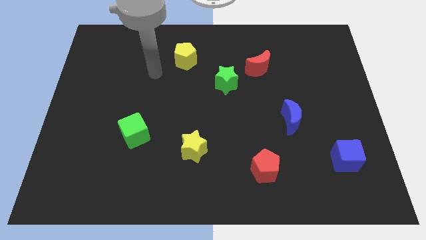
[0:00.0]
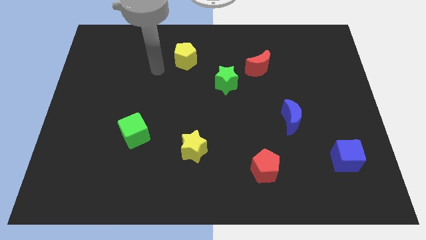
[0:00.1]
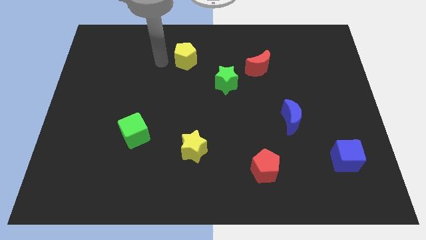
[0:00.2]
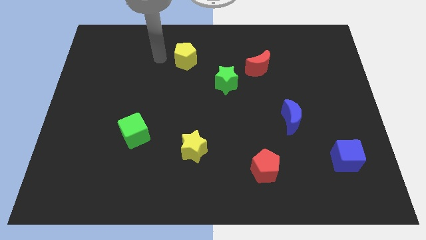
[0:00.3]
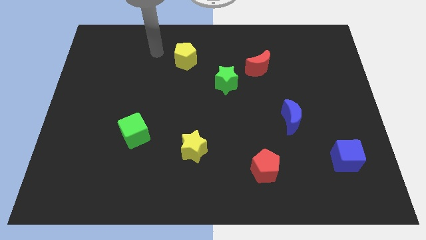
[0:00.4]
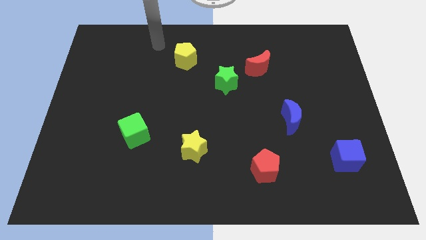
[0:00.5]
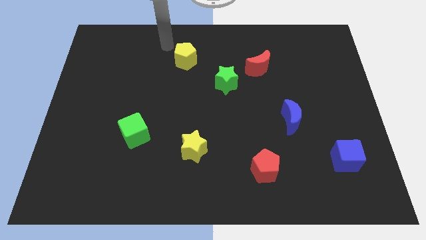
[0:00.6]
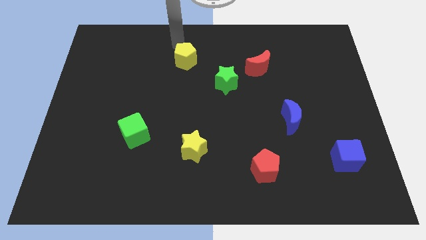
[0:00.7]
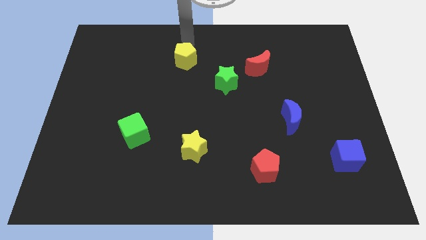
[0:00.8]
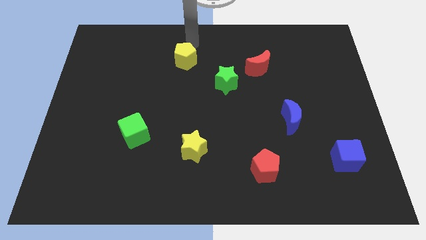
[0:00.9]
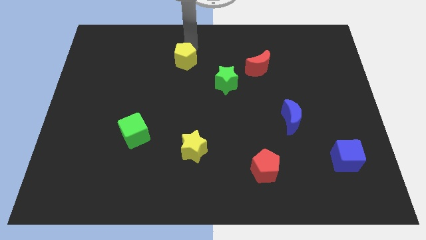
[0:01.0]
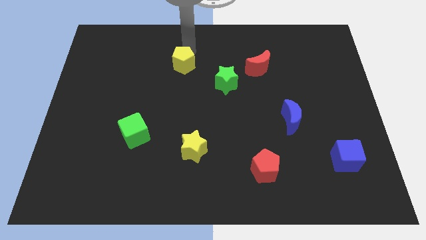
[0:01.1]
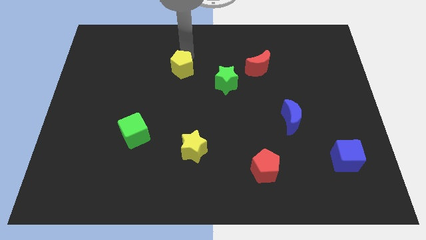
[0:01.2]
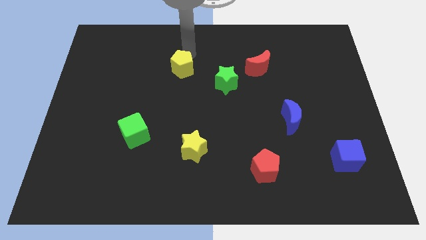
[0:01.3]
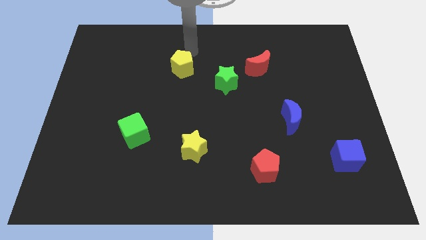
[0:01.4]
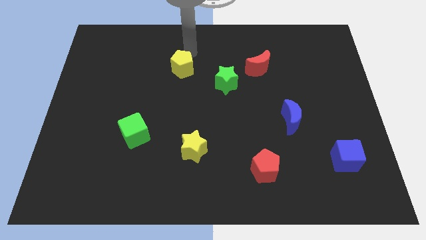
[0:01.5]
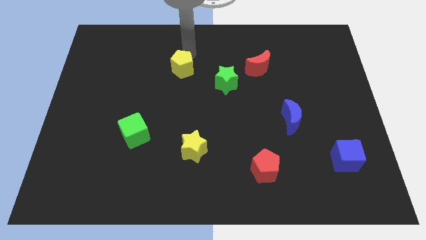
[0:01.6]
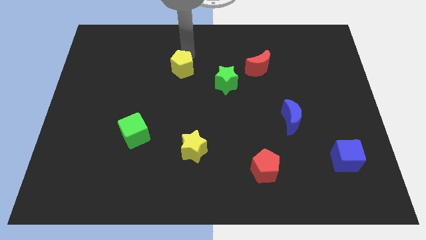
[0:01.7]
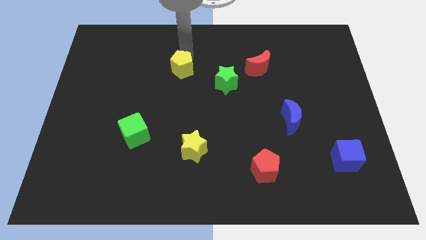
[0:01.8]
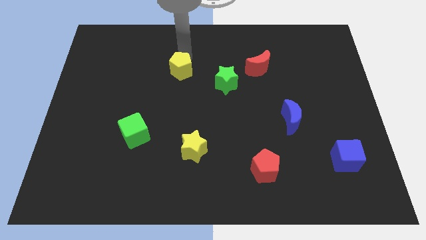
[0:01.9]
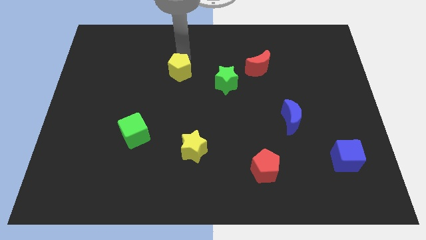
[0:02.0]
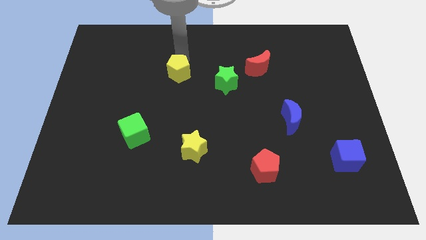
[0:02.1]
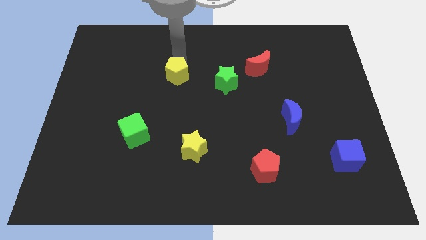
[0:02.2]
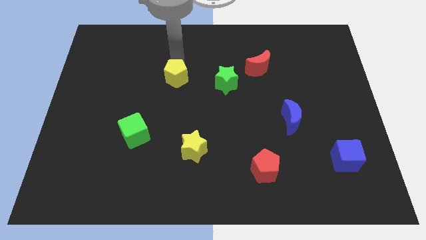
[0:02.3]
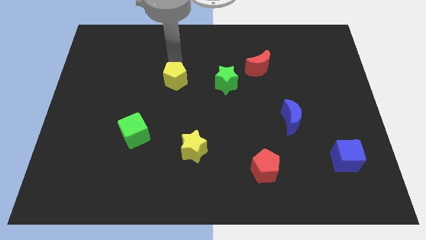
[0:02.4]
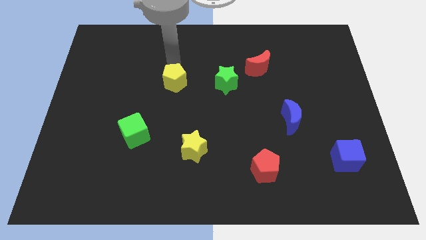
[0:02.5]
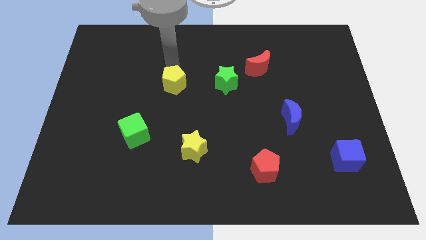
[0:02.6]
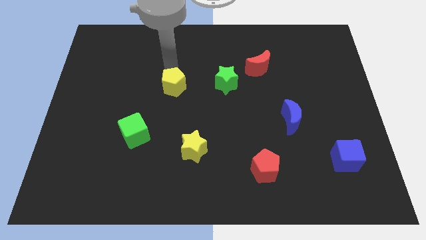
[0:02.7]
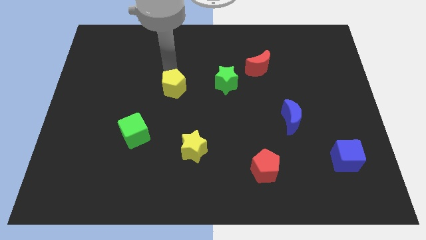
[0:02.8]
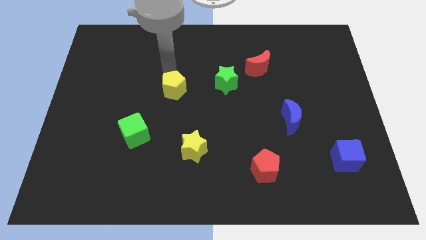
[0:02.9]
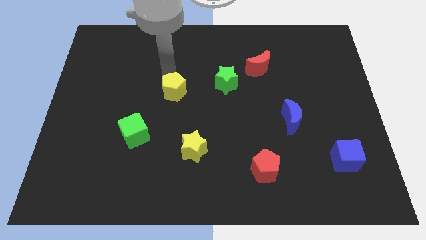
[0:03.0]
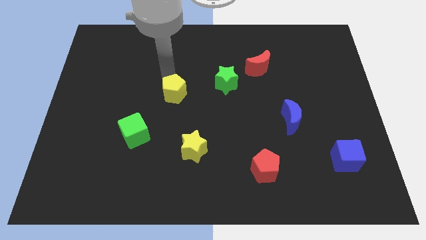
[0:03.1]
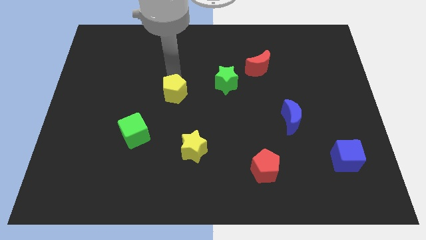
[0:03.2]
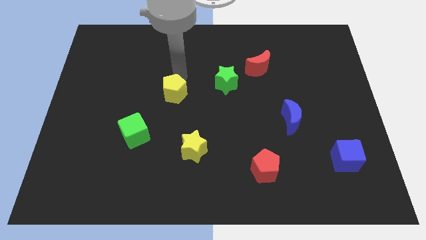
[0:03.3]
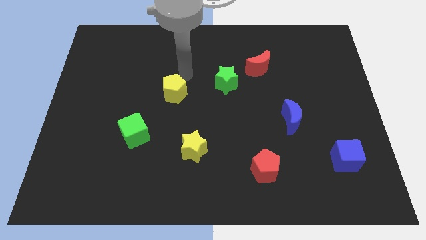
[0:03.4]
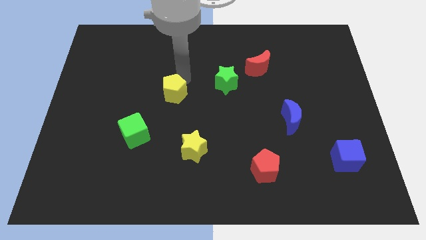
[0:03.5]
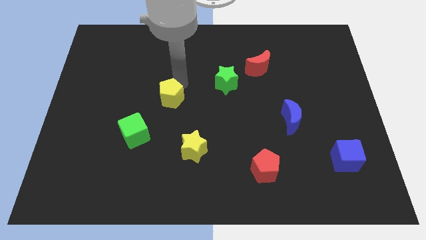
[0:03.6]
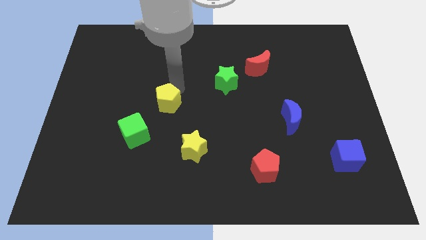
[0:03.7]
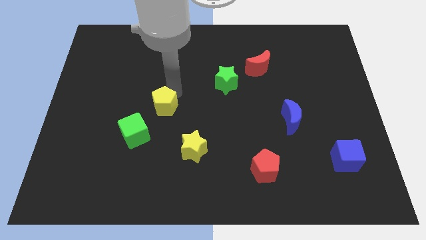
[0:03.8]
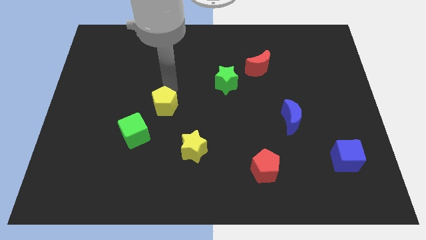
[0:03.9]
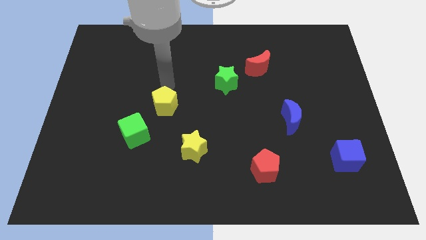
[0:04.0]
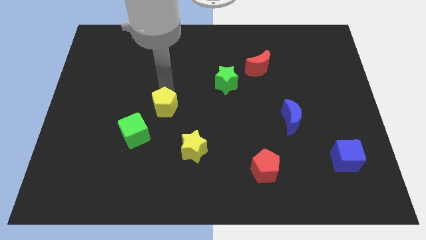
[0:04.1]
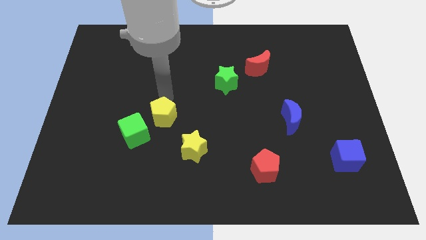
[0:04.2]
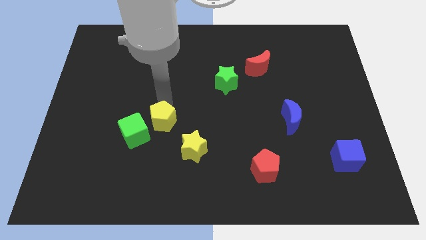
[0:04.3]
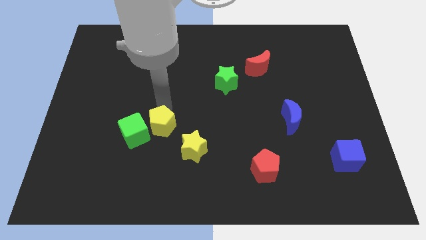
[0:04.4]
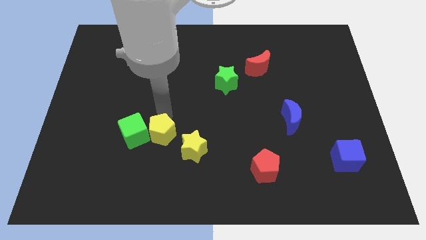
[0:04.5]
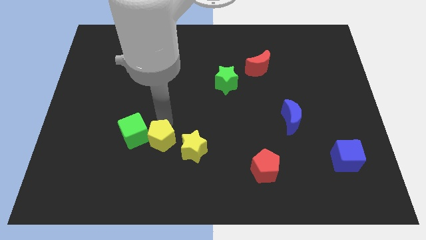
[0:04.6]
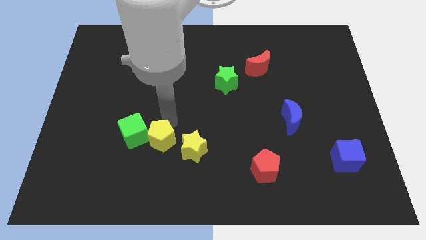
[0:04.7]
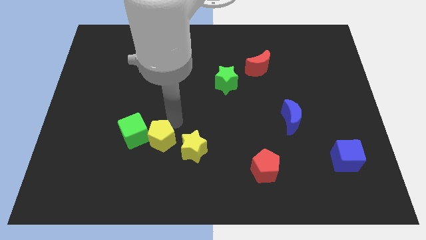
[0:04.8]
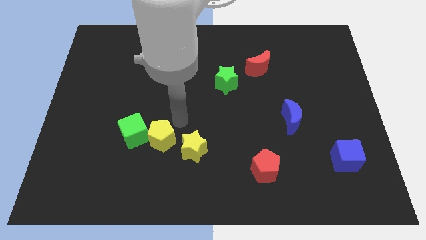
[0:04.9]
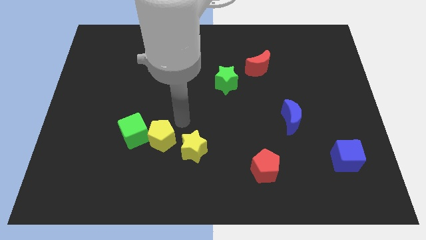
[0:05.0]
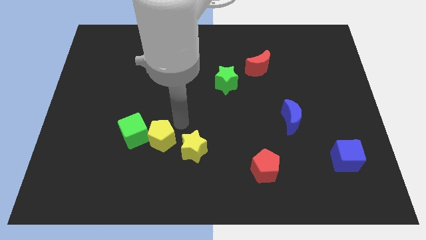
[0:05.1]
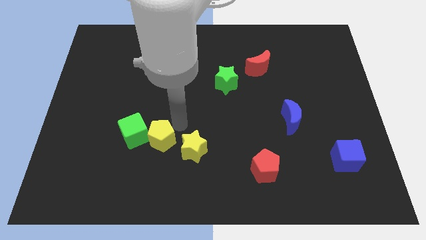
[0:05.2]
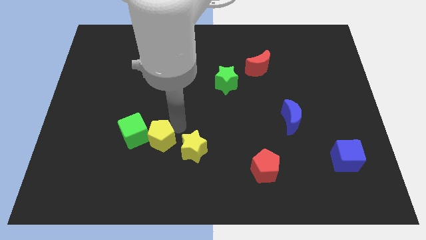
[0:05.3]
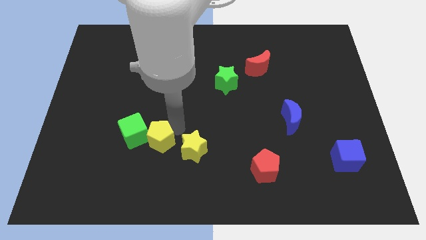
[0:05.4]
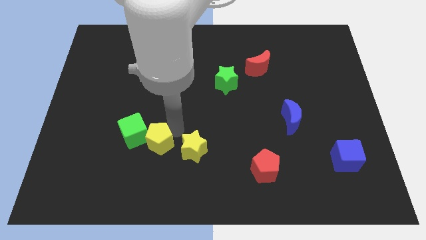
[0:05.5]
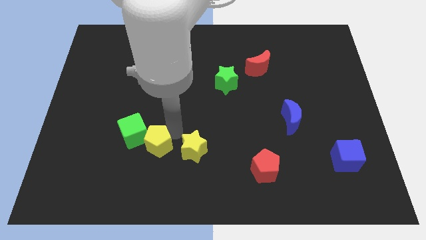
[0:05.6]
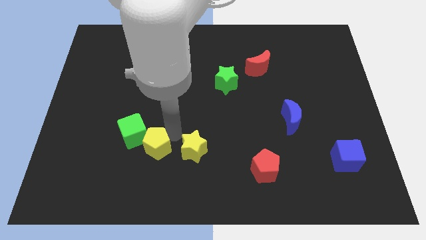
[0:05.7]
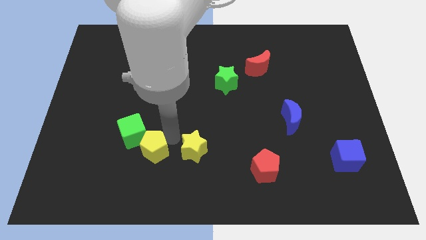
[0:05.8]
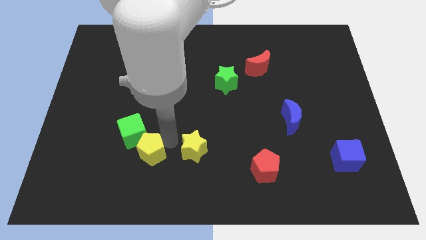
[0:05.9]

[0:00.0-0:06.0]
move the yellow pentagon below the green cube

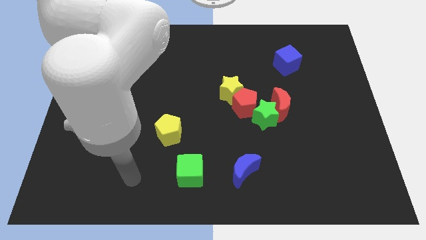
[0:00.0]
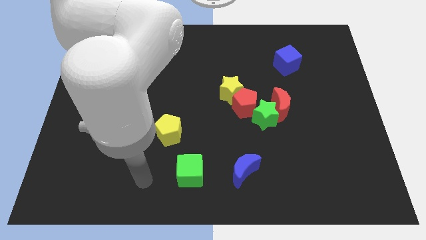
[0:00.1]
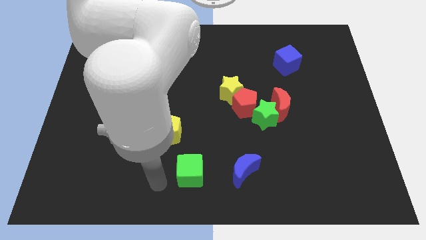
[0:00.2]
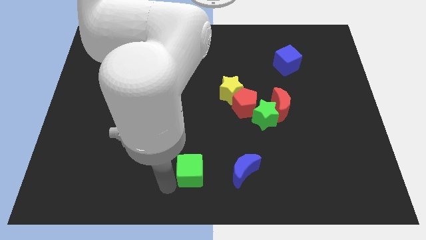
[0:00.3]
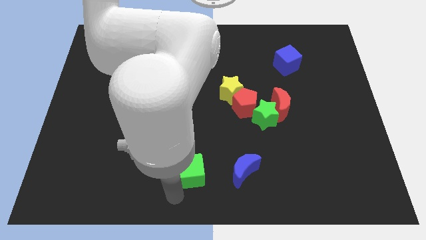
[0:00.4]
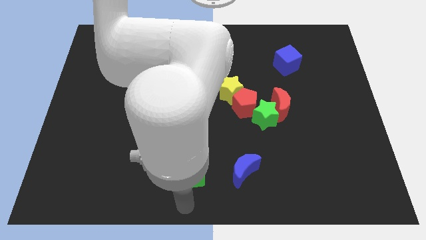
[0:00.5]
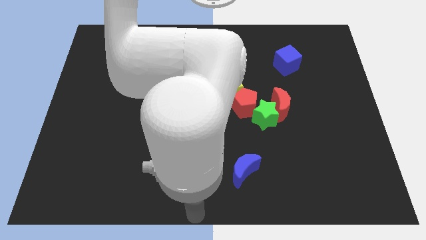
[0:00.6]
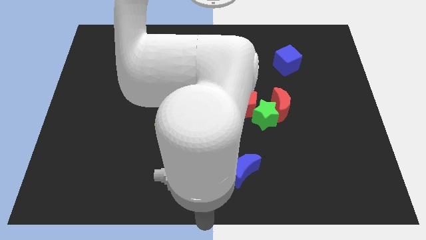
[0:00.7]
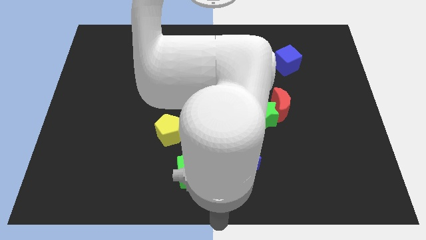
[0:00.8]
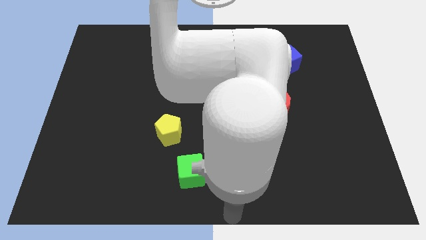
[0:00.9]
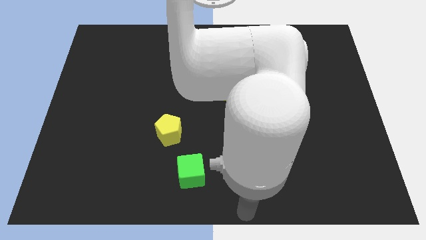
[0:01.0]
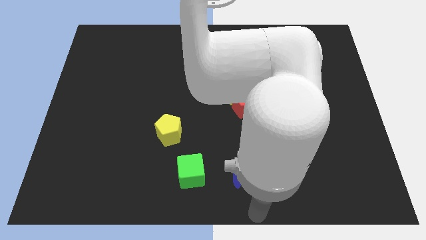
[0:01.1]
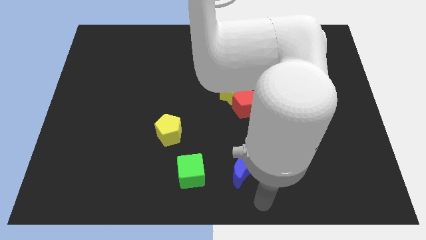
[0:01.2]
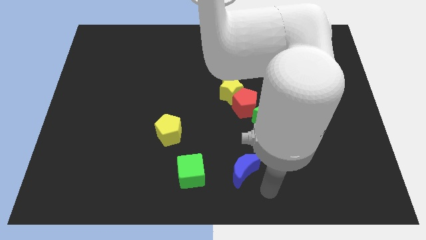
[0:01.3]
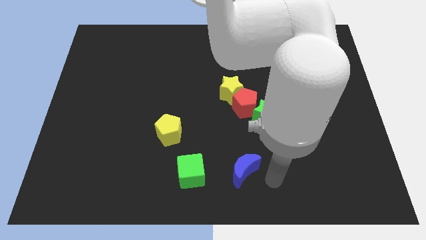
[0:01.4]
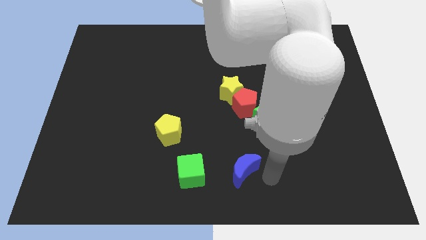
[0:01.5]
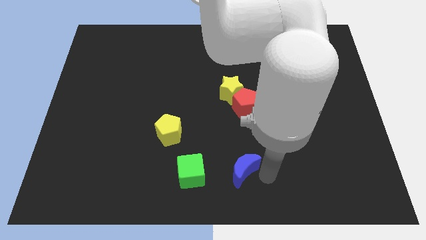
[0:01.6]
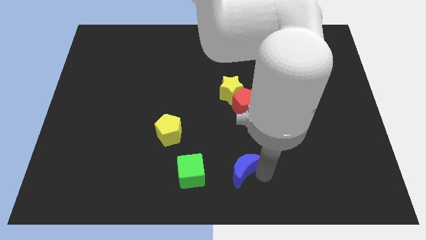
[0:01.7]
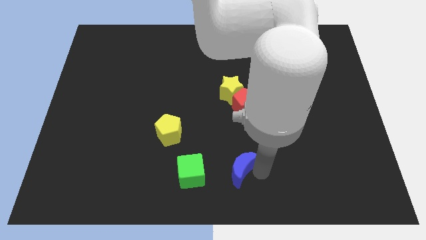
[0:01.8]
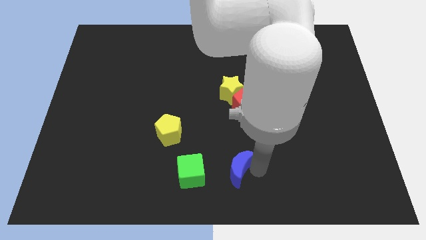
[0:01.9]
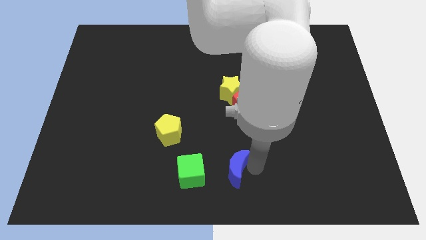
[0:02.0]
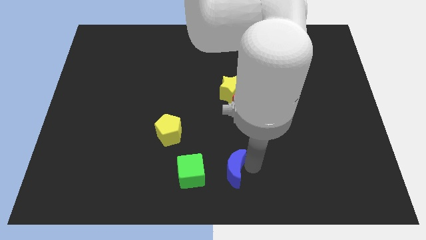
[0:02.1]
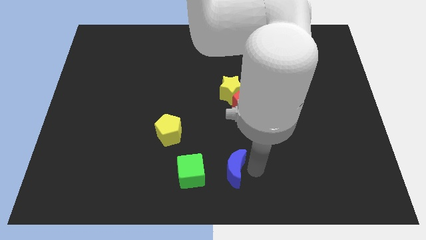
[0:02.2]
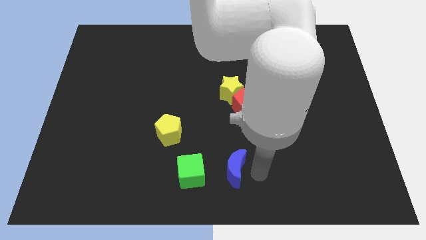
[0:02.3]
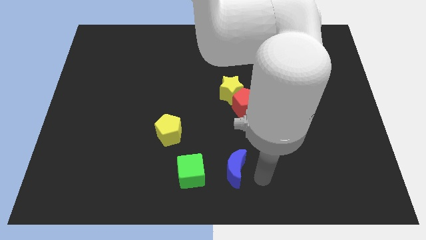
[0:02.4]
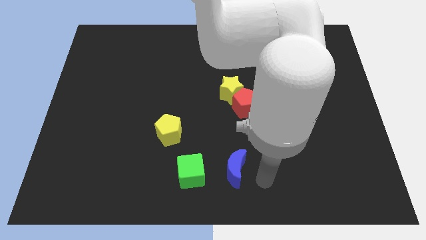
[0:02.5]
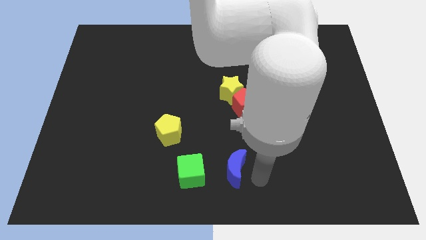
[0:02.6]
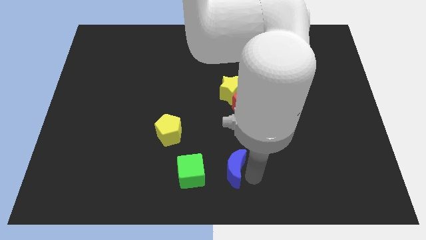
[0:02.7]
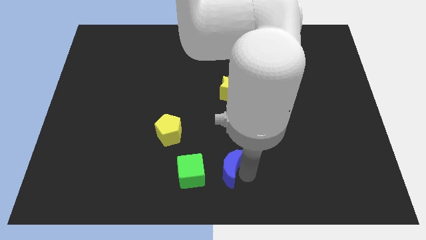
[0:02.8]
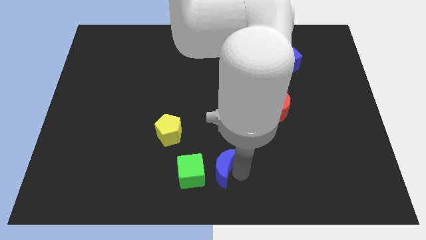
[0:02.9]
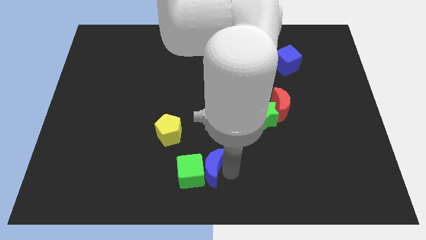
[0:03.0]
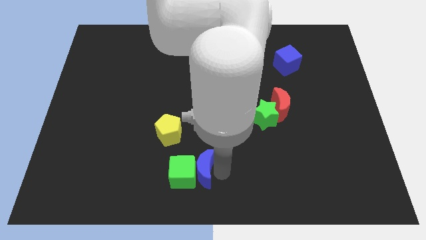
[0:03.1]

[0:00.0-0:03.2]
slide the blue moon diagonally down and to the right of the yellow pentagon
